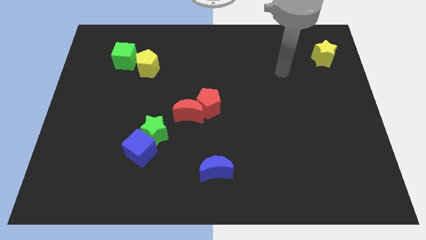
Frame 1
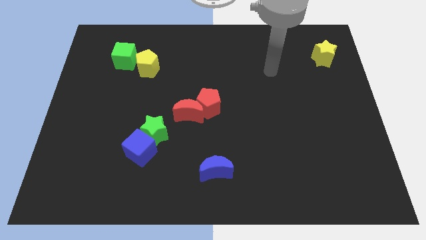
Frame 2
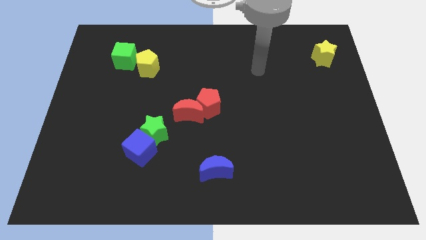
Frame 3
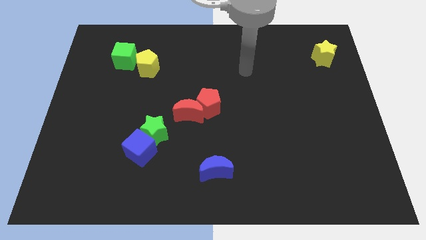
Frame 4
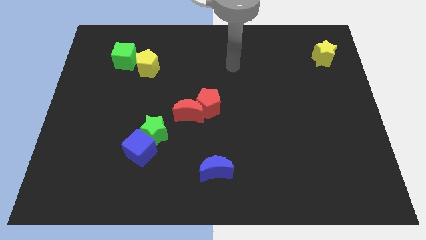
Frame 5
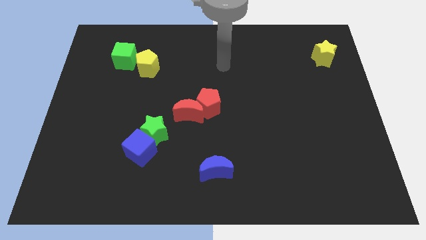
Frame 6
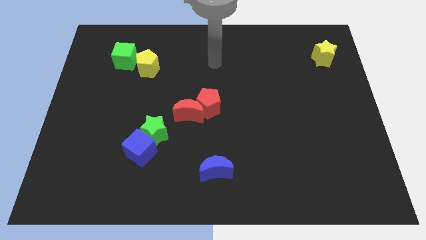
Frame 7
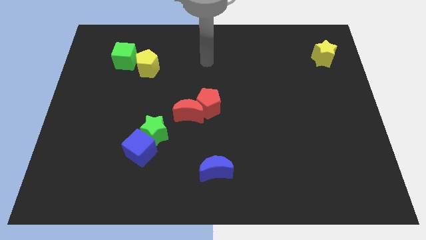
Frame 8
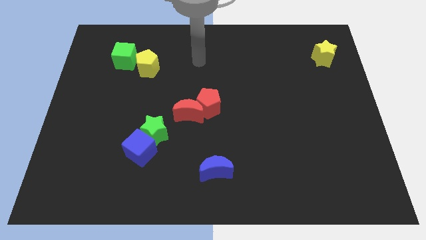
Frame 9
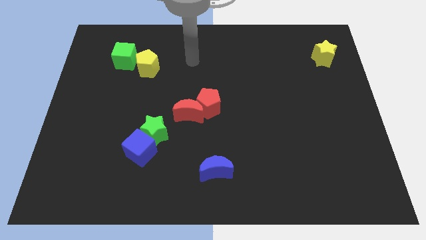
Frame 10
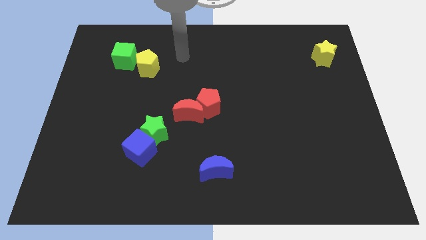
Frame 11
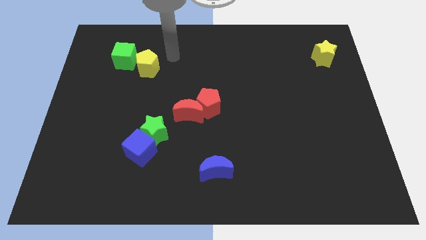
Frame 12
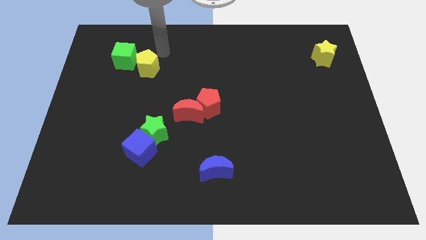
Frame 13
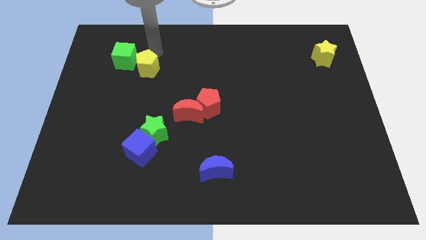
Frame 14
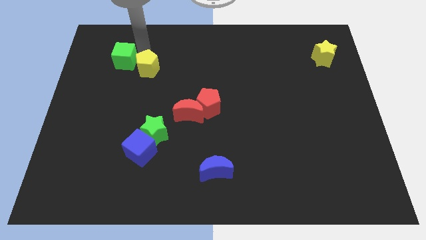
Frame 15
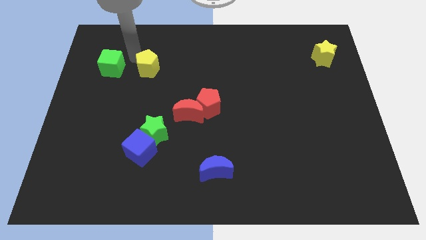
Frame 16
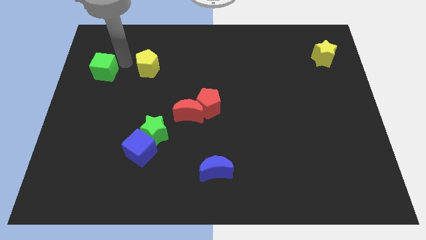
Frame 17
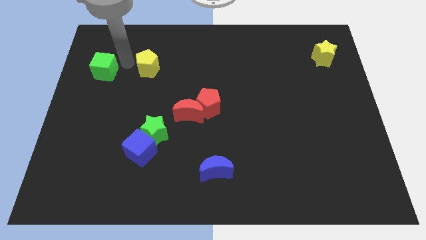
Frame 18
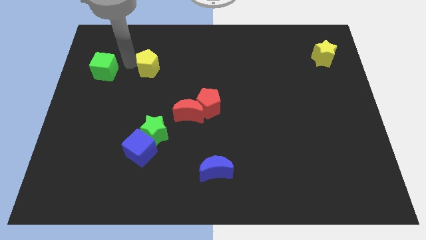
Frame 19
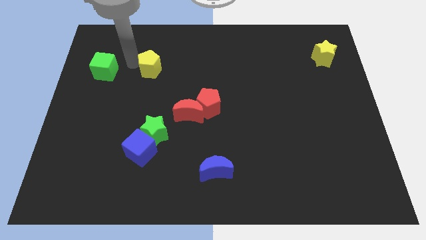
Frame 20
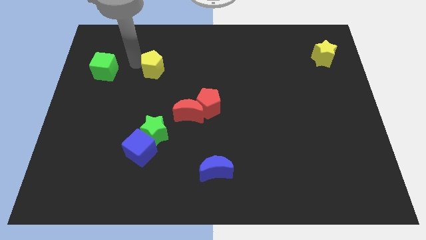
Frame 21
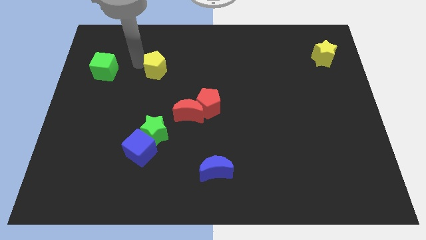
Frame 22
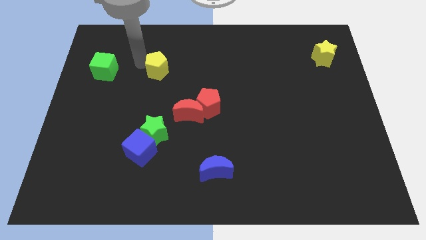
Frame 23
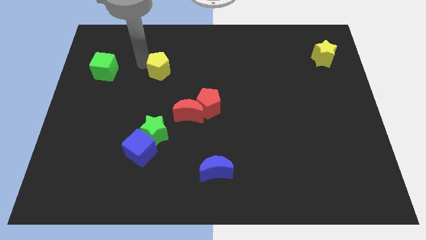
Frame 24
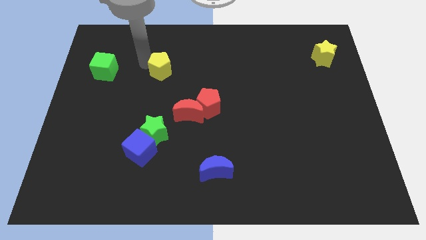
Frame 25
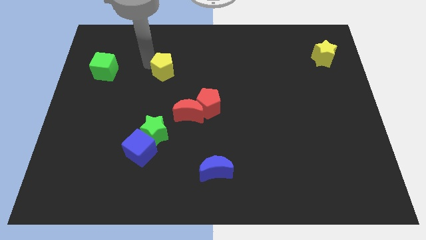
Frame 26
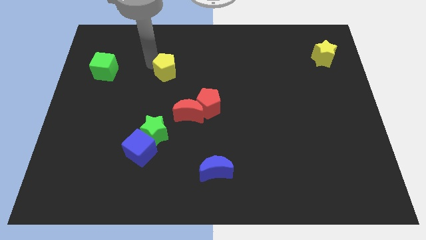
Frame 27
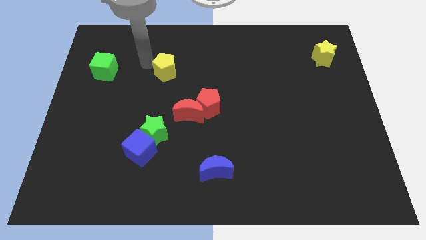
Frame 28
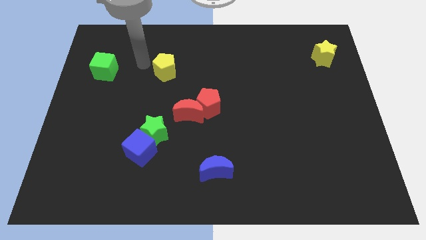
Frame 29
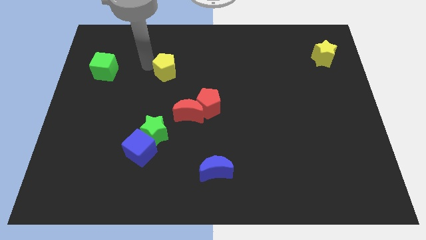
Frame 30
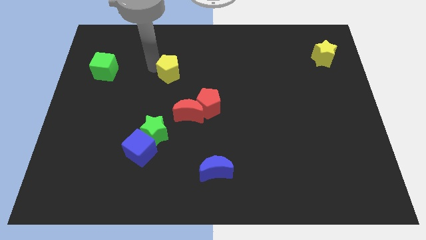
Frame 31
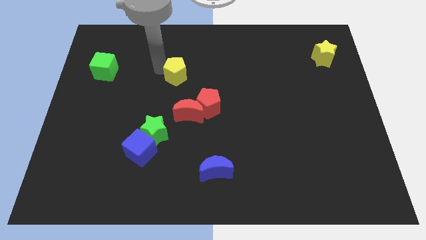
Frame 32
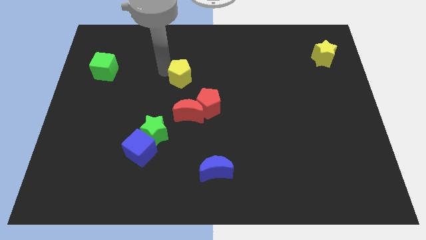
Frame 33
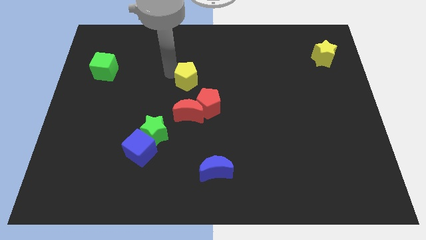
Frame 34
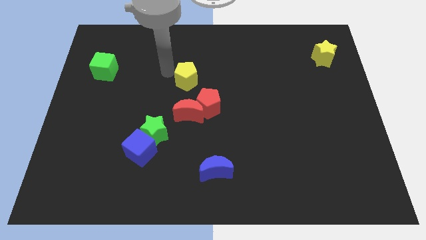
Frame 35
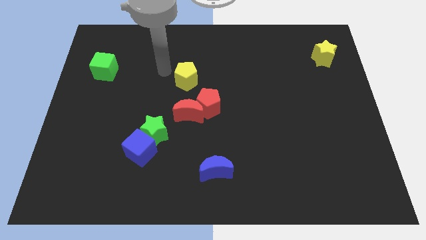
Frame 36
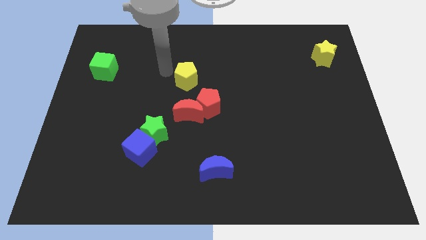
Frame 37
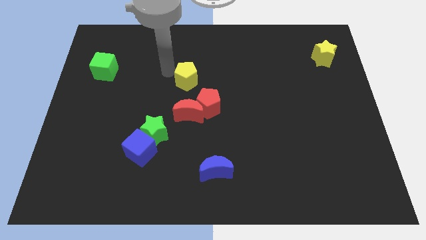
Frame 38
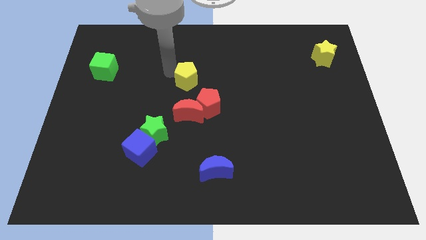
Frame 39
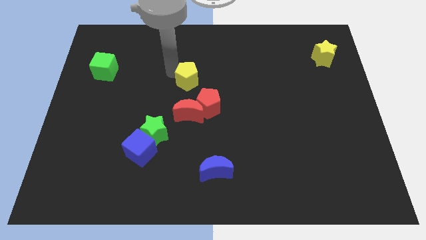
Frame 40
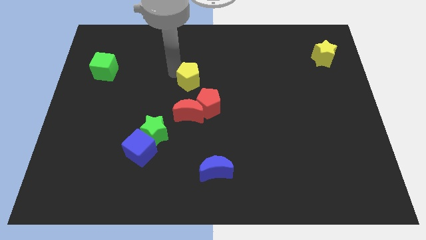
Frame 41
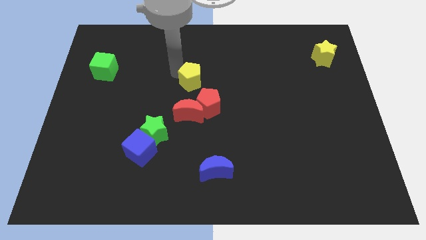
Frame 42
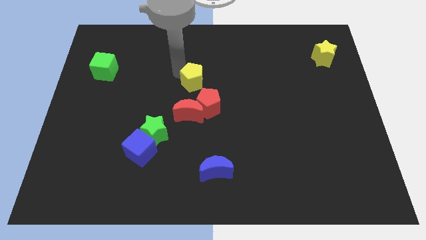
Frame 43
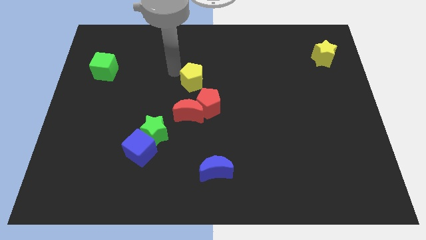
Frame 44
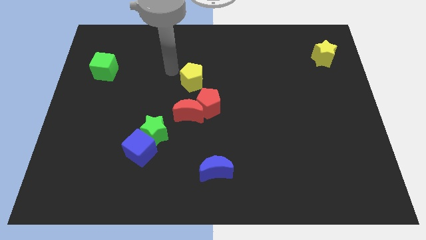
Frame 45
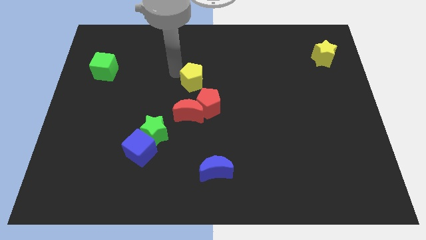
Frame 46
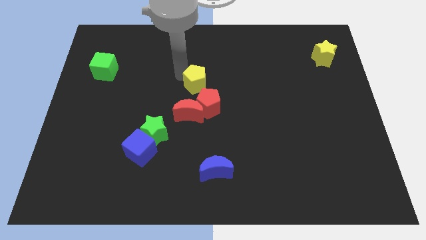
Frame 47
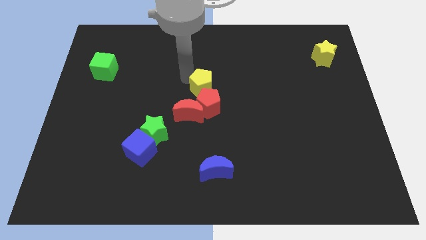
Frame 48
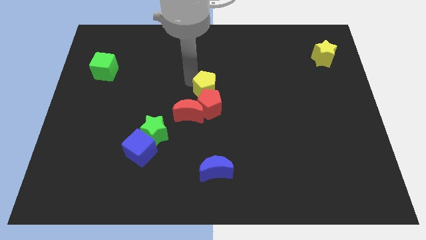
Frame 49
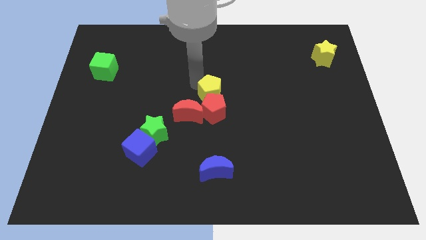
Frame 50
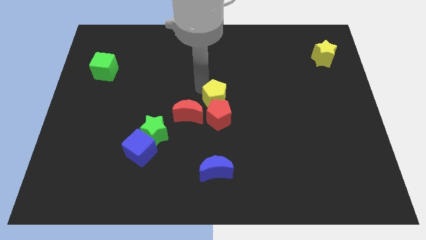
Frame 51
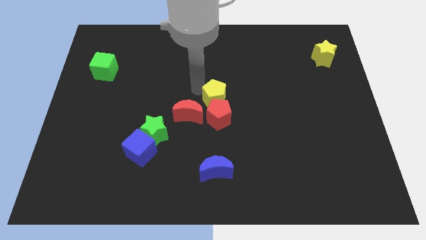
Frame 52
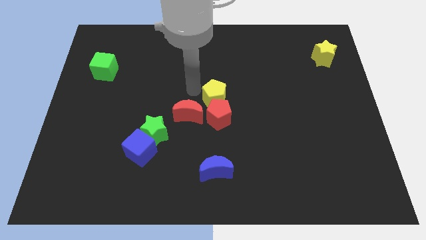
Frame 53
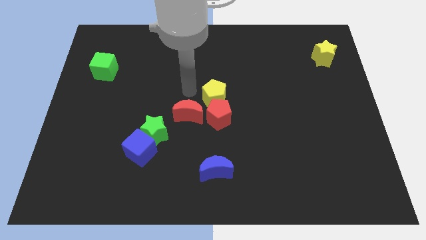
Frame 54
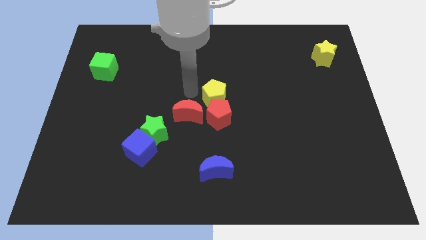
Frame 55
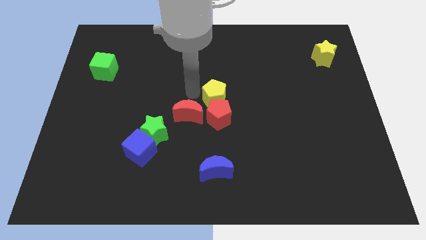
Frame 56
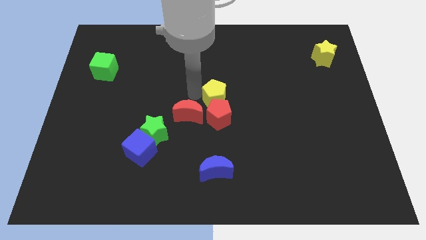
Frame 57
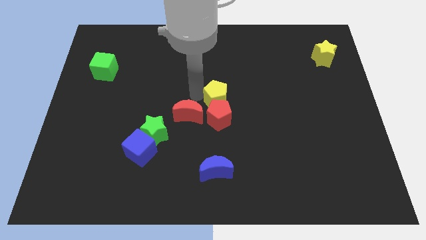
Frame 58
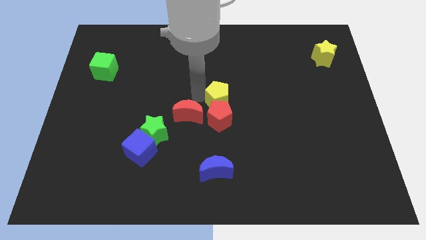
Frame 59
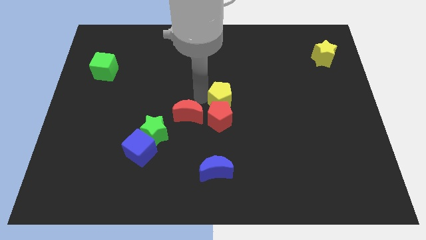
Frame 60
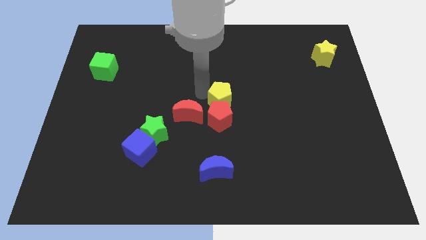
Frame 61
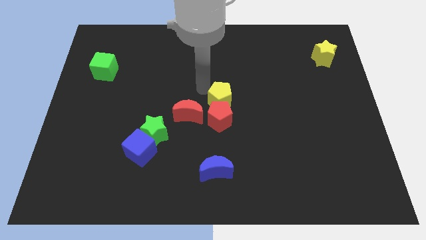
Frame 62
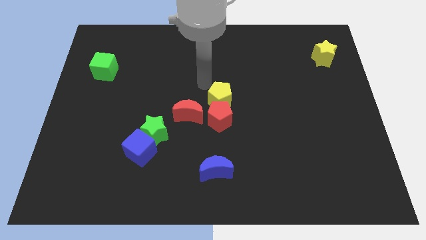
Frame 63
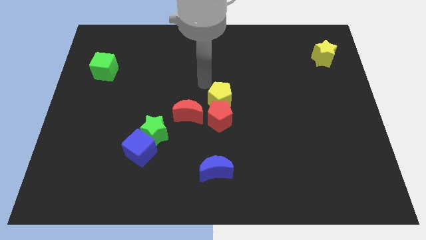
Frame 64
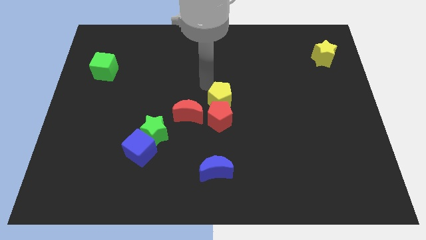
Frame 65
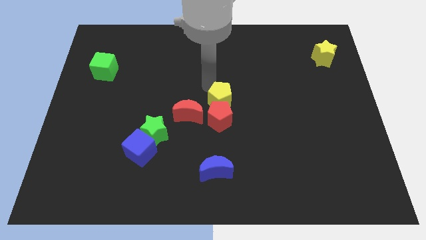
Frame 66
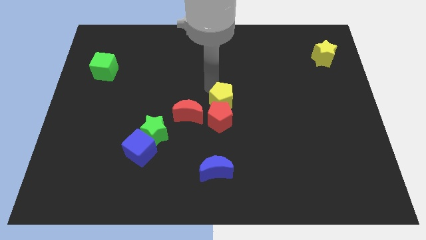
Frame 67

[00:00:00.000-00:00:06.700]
slide the yellow pentagon downwards and right

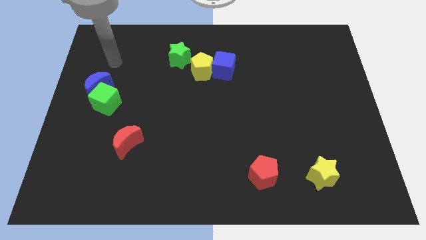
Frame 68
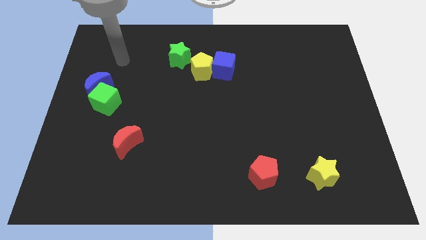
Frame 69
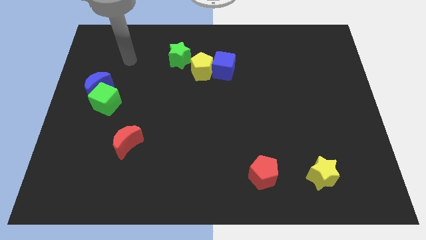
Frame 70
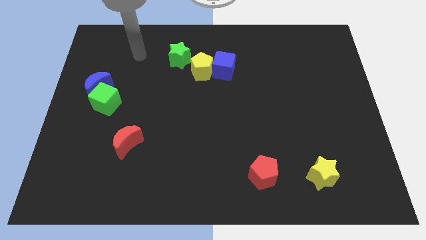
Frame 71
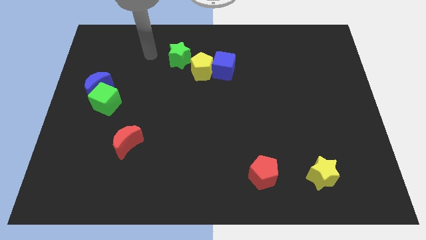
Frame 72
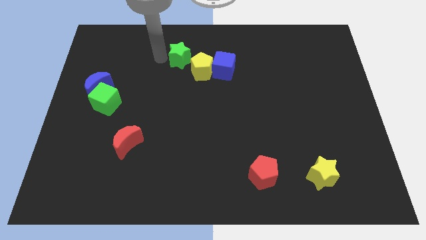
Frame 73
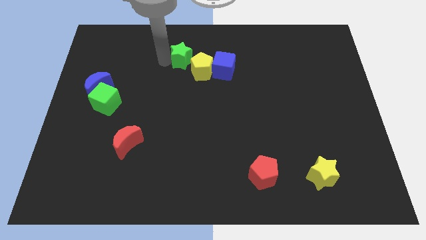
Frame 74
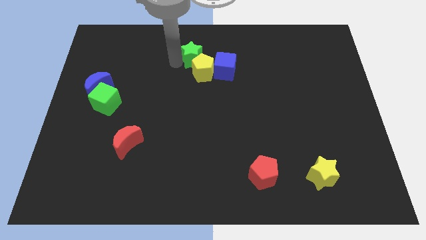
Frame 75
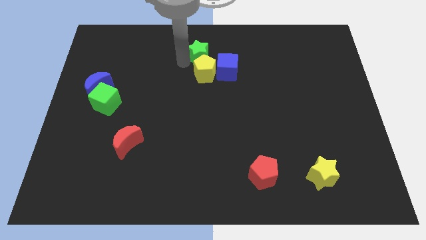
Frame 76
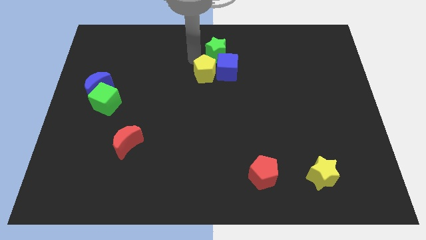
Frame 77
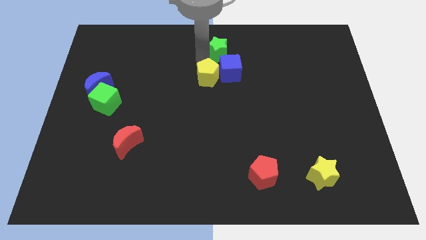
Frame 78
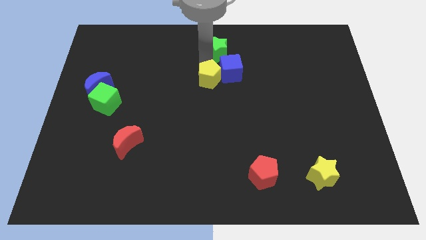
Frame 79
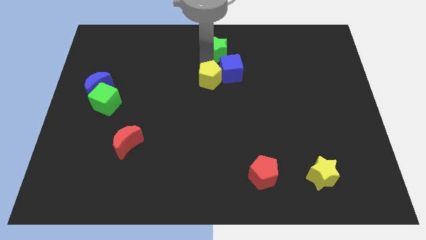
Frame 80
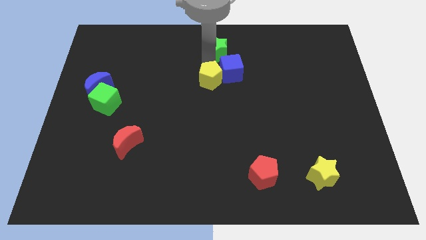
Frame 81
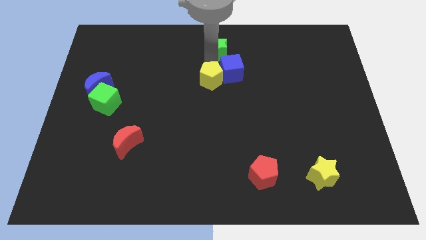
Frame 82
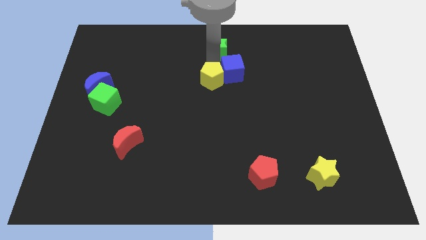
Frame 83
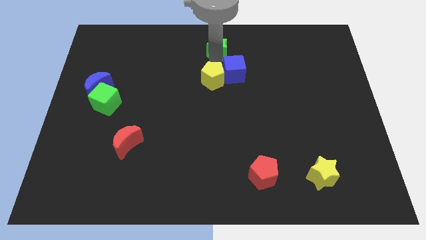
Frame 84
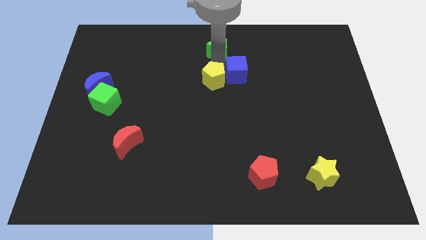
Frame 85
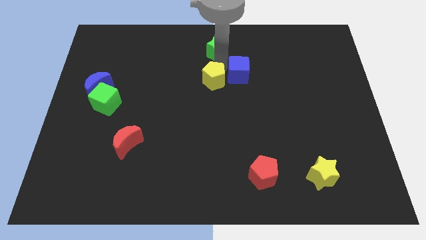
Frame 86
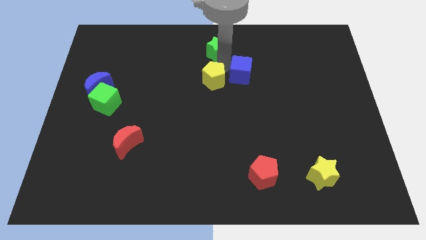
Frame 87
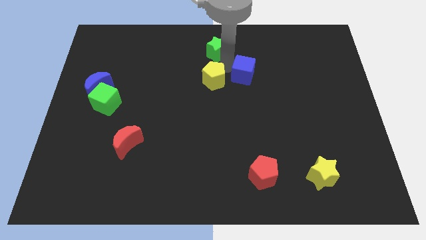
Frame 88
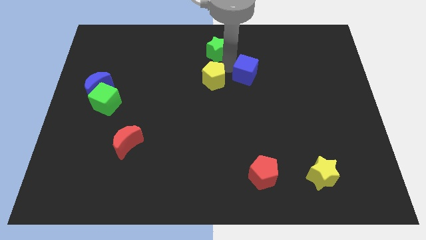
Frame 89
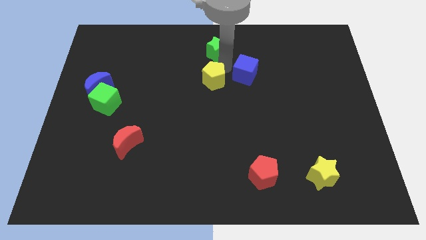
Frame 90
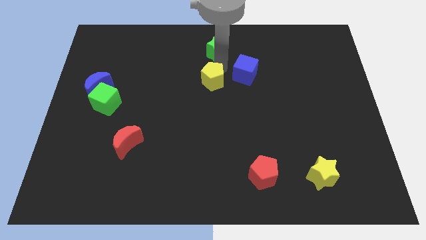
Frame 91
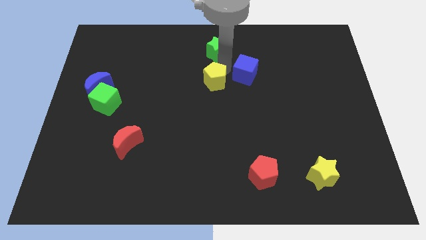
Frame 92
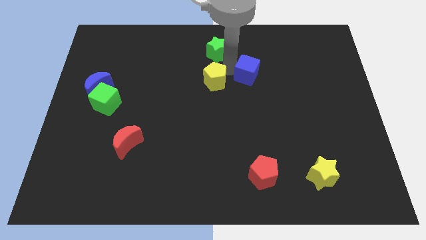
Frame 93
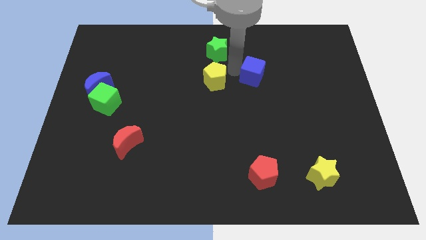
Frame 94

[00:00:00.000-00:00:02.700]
slide the blue cube somewhat right
